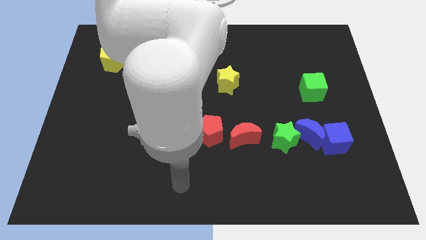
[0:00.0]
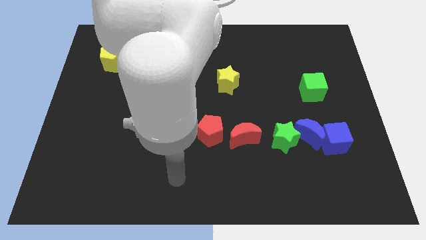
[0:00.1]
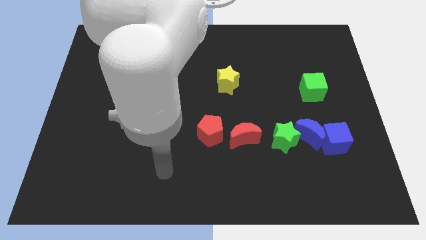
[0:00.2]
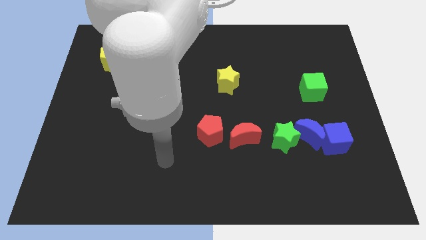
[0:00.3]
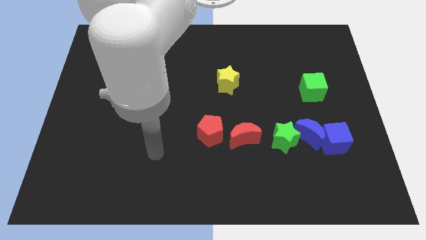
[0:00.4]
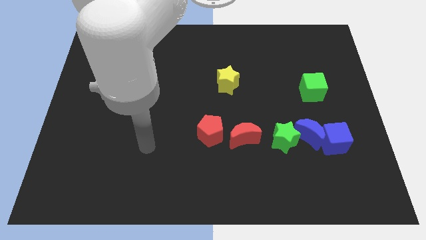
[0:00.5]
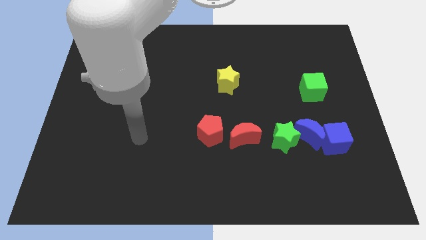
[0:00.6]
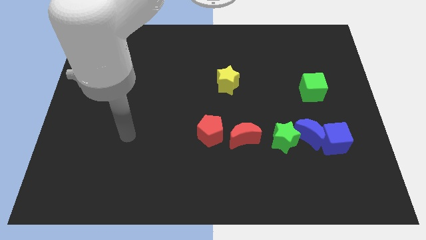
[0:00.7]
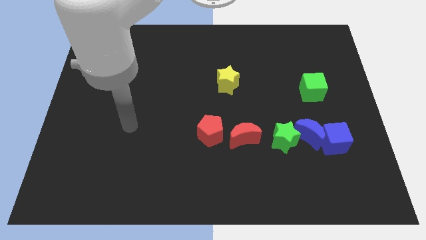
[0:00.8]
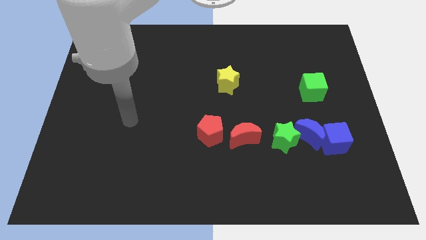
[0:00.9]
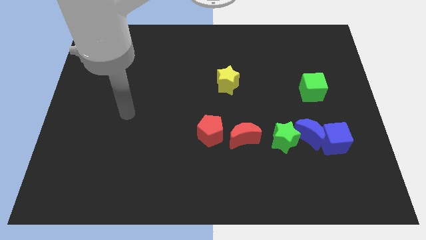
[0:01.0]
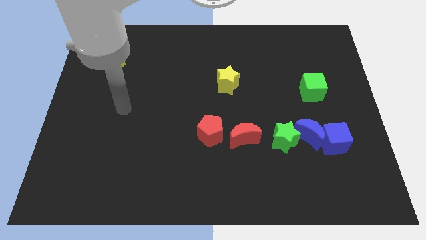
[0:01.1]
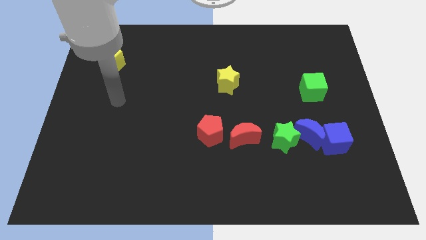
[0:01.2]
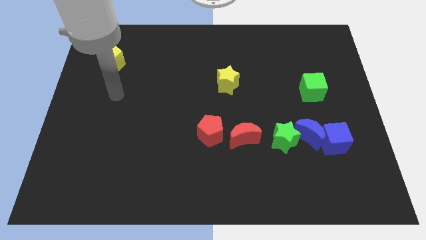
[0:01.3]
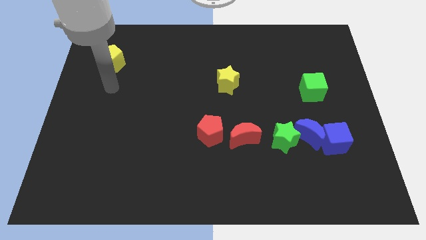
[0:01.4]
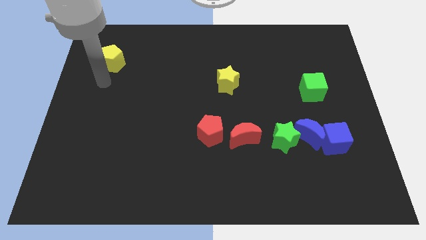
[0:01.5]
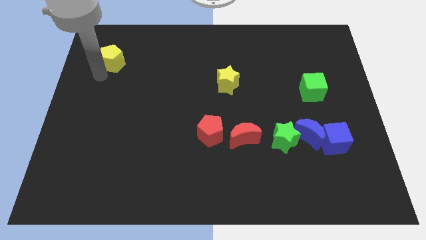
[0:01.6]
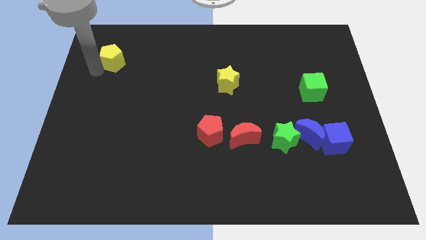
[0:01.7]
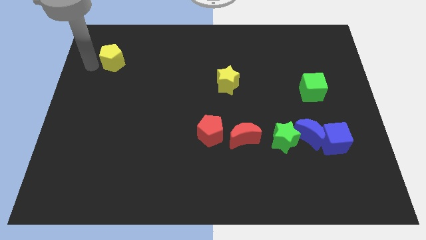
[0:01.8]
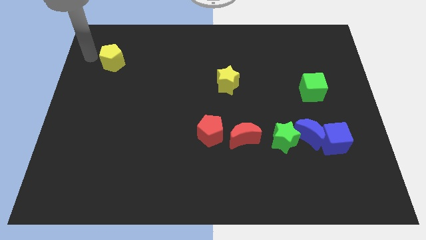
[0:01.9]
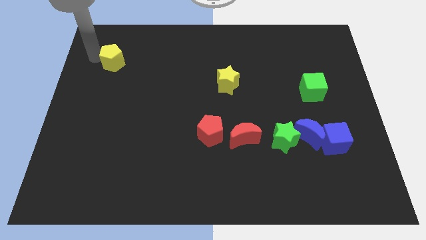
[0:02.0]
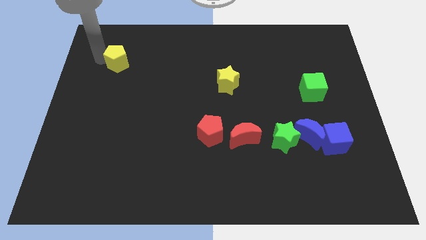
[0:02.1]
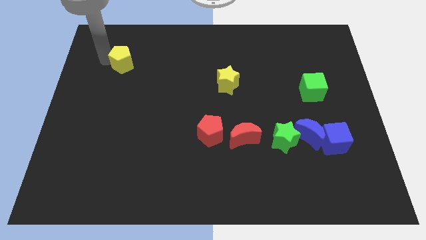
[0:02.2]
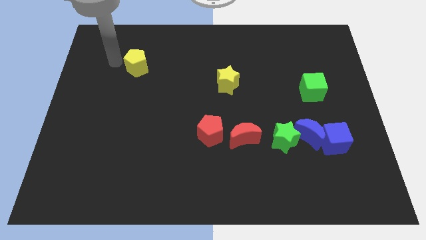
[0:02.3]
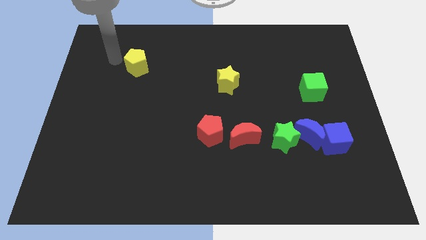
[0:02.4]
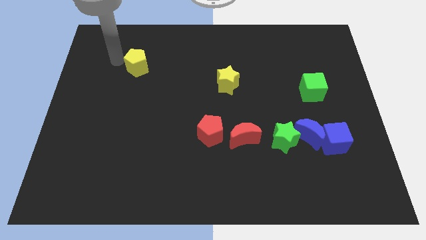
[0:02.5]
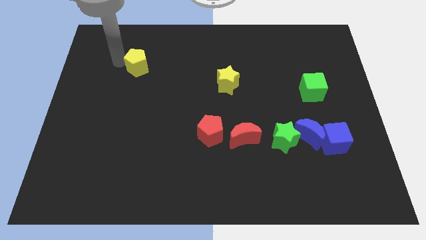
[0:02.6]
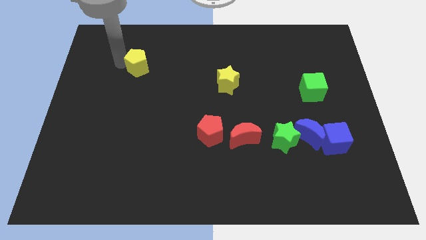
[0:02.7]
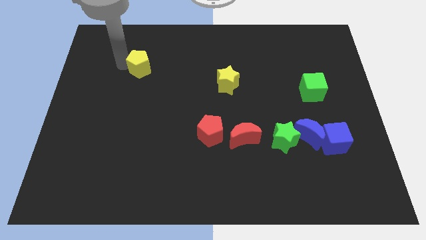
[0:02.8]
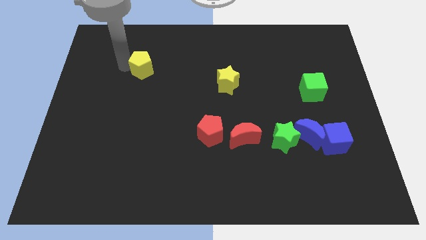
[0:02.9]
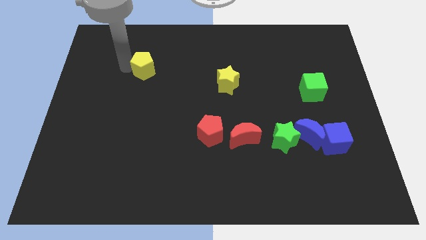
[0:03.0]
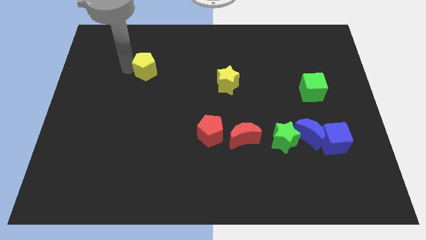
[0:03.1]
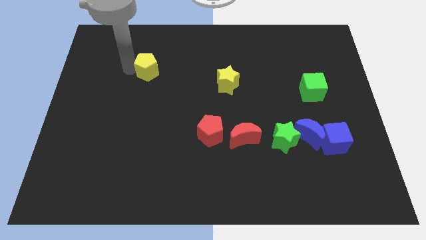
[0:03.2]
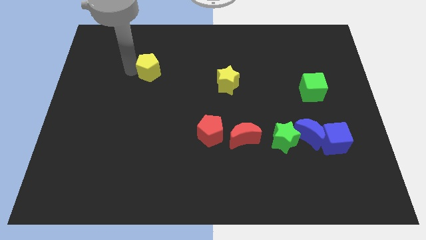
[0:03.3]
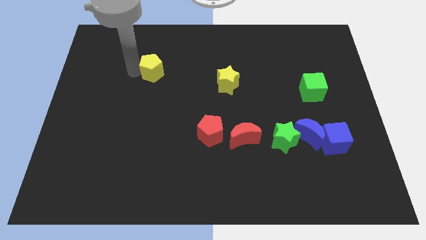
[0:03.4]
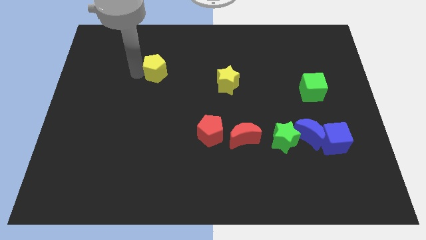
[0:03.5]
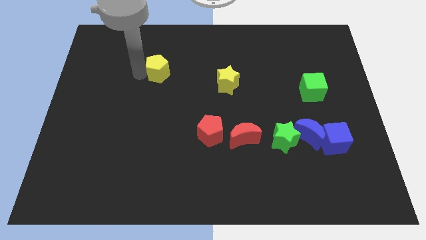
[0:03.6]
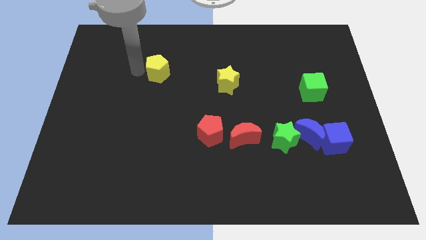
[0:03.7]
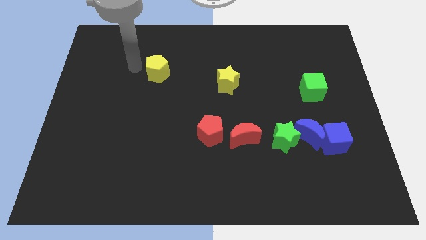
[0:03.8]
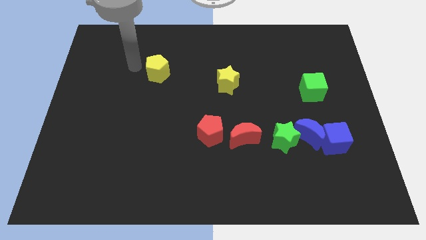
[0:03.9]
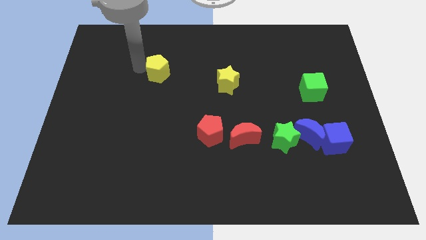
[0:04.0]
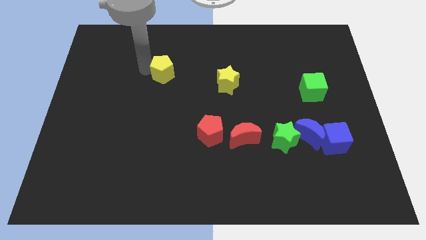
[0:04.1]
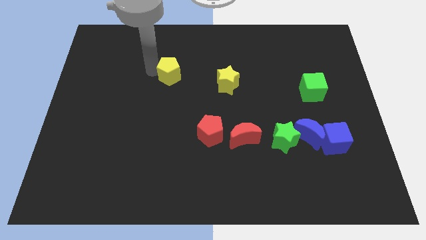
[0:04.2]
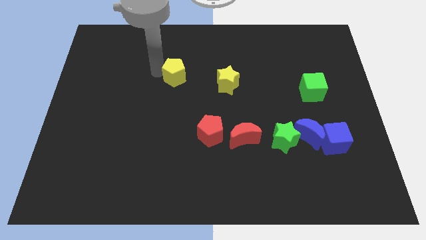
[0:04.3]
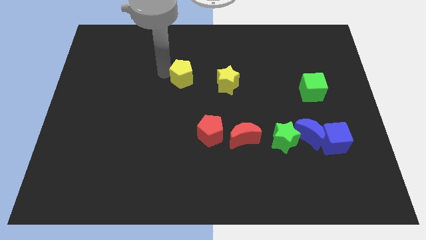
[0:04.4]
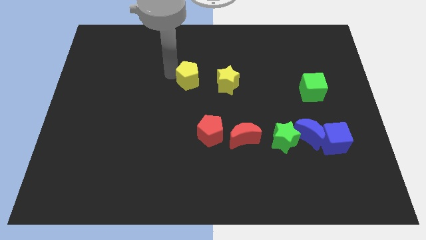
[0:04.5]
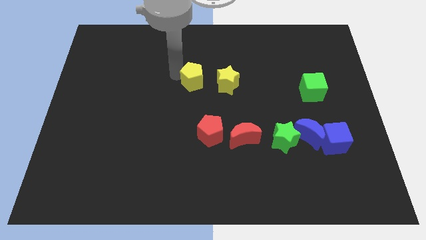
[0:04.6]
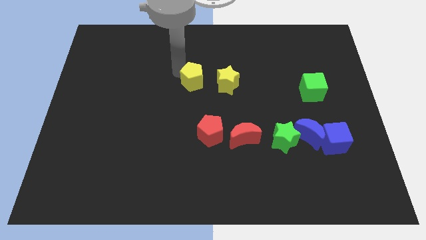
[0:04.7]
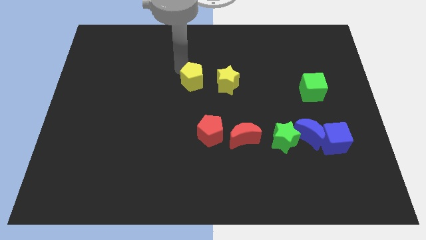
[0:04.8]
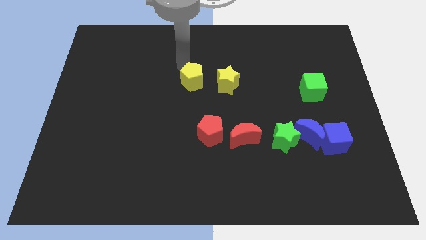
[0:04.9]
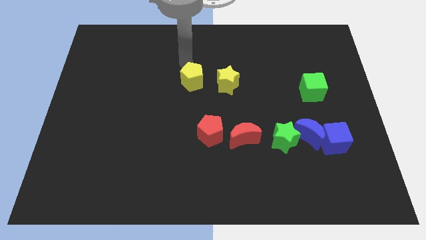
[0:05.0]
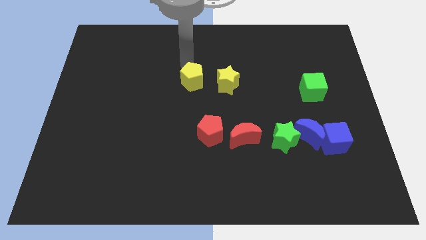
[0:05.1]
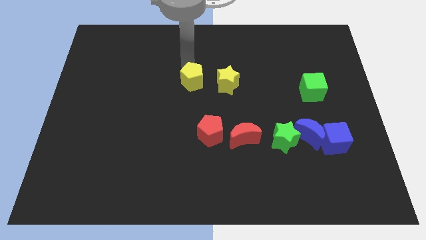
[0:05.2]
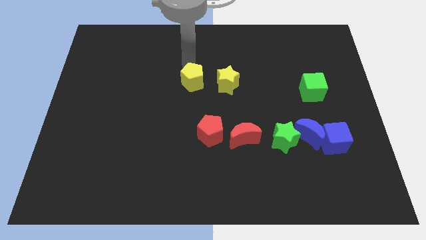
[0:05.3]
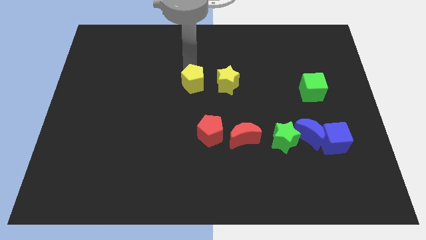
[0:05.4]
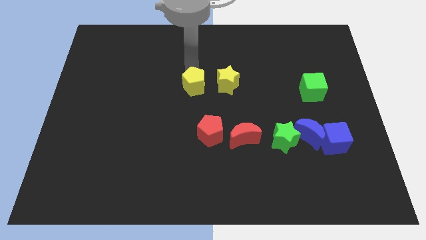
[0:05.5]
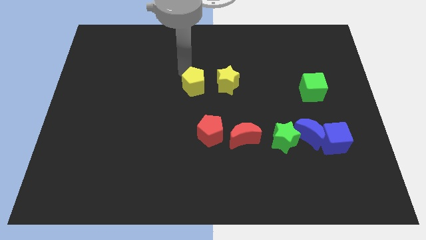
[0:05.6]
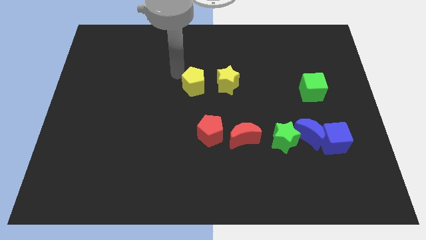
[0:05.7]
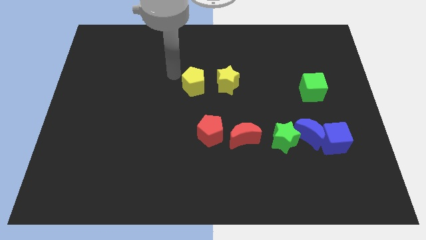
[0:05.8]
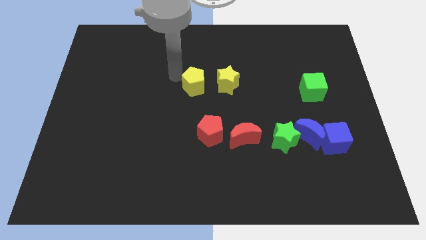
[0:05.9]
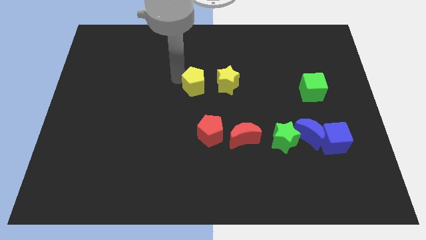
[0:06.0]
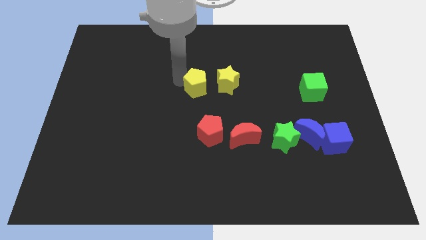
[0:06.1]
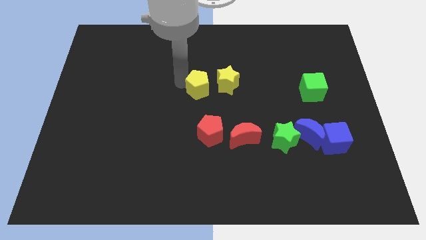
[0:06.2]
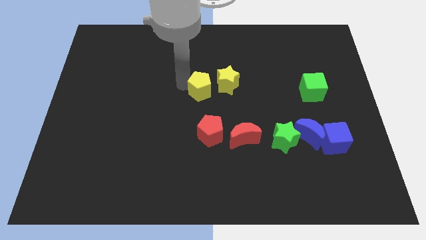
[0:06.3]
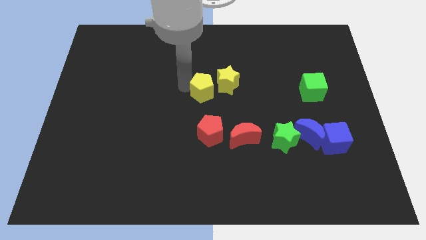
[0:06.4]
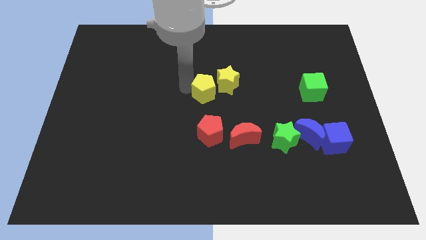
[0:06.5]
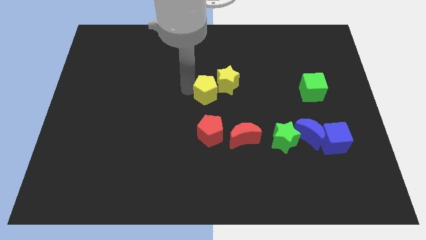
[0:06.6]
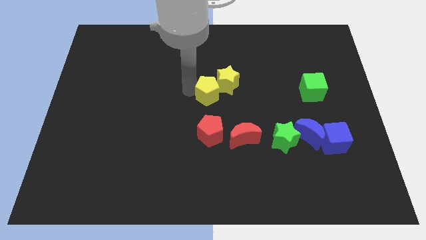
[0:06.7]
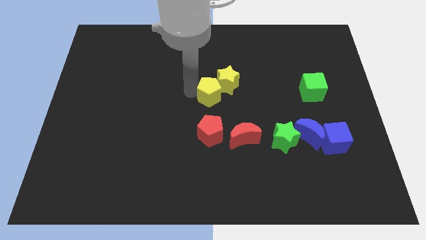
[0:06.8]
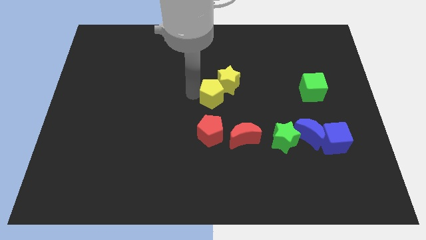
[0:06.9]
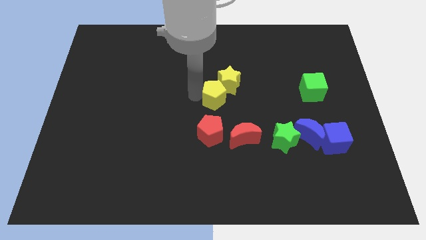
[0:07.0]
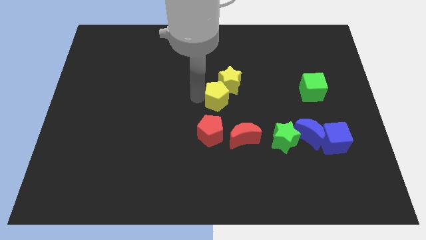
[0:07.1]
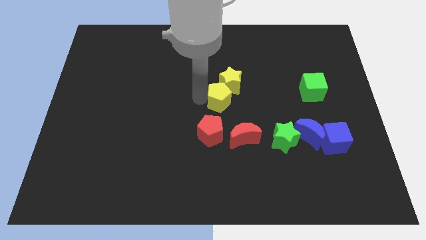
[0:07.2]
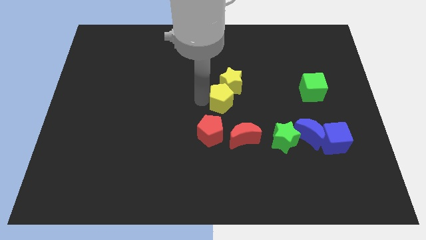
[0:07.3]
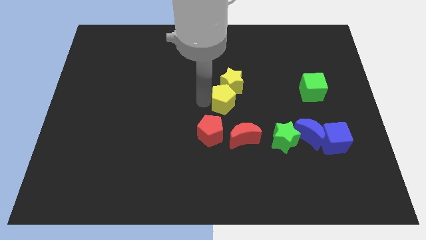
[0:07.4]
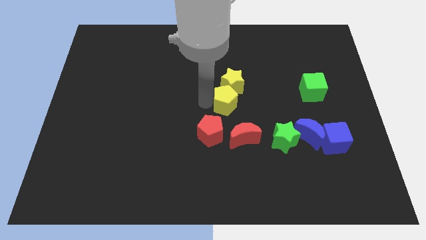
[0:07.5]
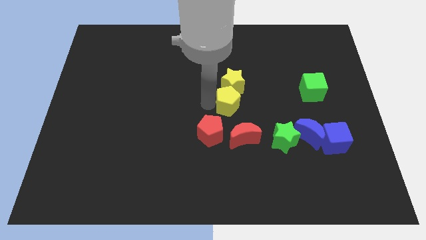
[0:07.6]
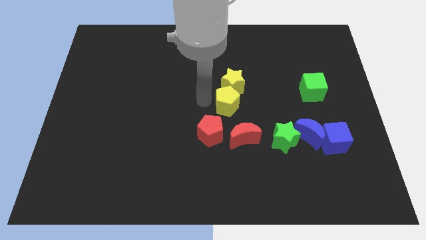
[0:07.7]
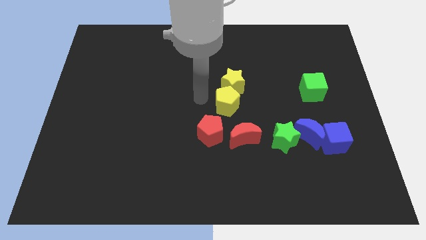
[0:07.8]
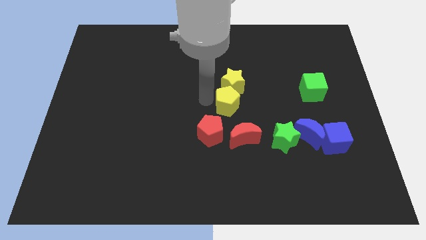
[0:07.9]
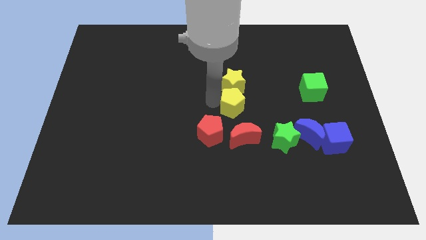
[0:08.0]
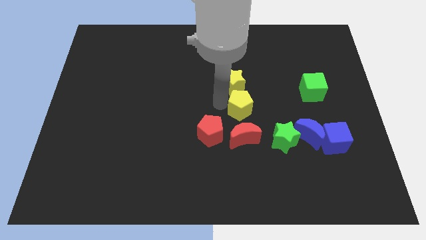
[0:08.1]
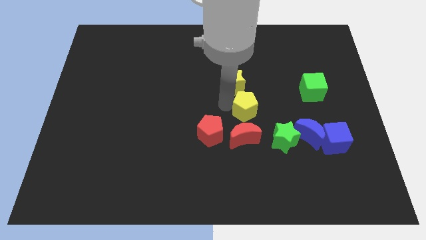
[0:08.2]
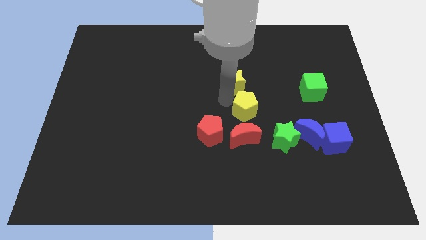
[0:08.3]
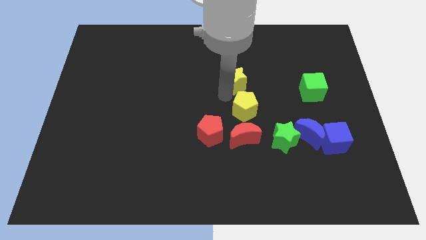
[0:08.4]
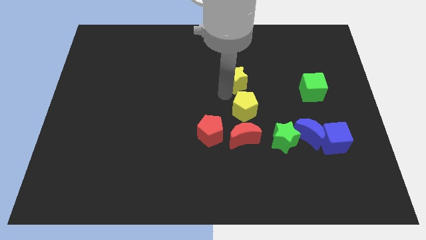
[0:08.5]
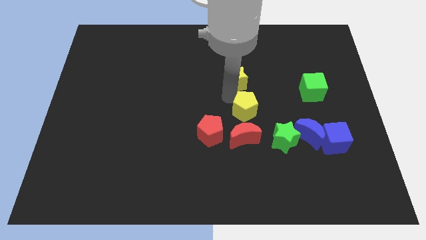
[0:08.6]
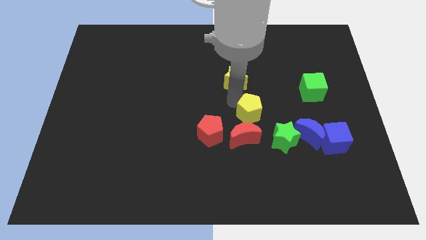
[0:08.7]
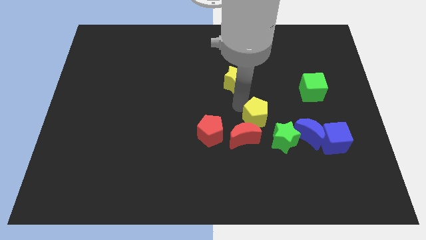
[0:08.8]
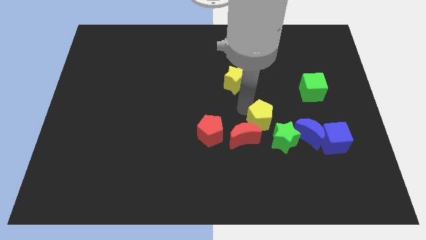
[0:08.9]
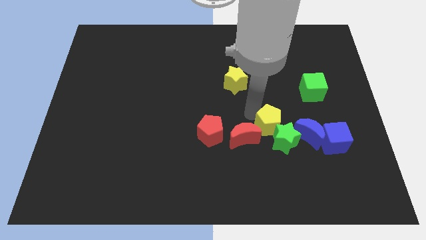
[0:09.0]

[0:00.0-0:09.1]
put the yellow pentagon close to the green star
